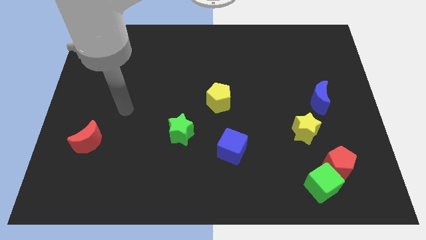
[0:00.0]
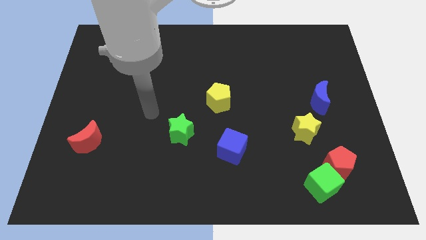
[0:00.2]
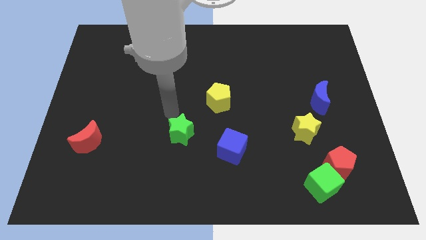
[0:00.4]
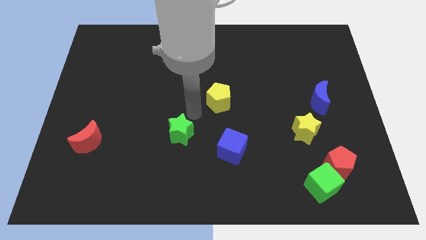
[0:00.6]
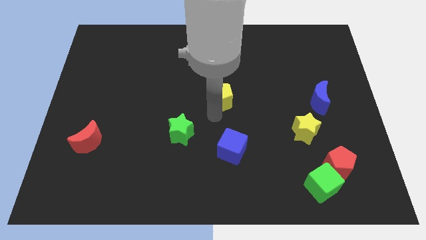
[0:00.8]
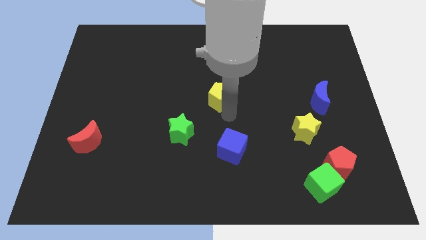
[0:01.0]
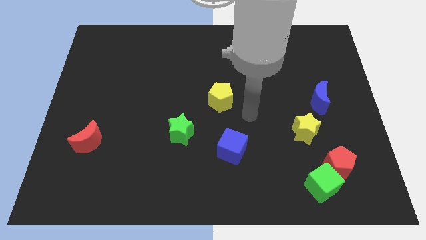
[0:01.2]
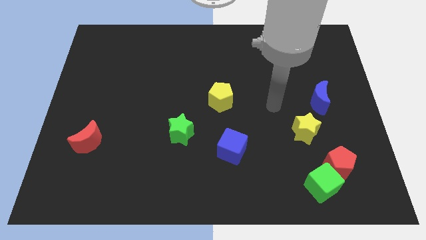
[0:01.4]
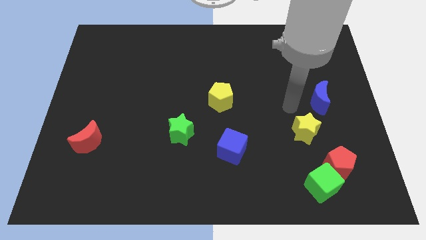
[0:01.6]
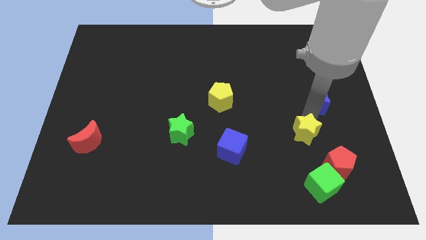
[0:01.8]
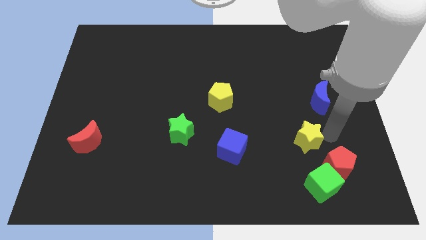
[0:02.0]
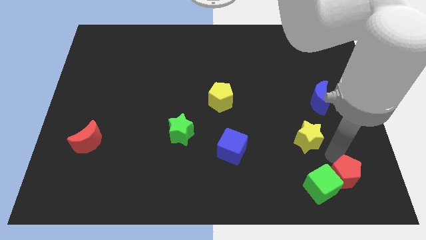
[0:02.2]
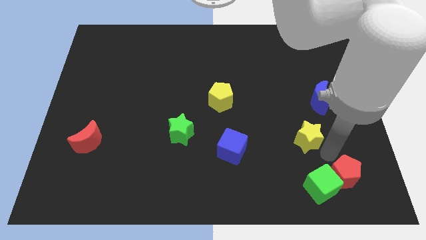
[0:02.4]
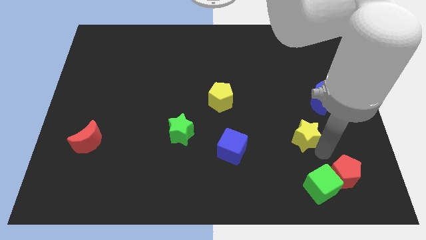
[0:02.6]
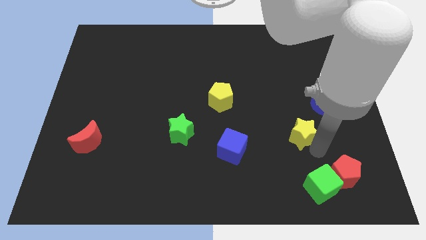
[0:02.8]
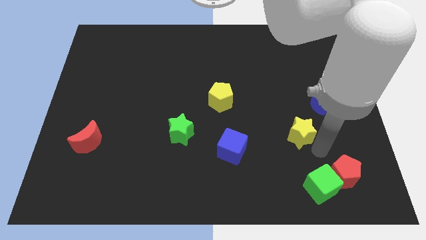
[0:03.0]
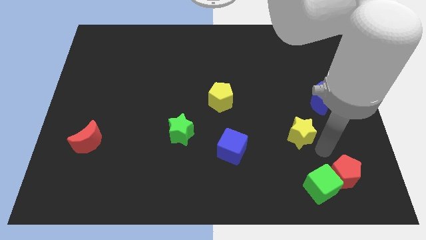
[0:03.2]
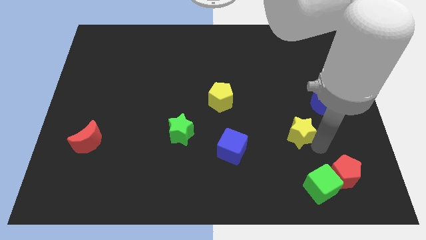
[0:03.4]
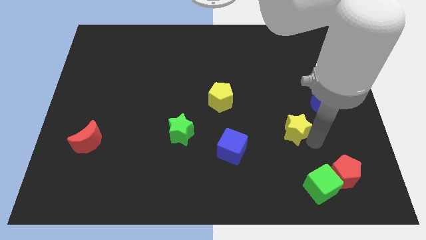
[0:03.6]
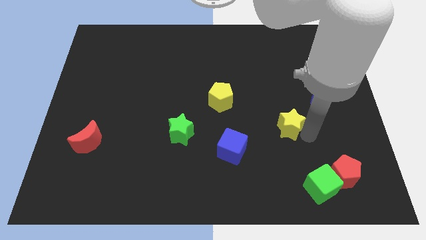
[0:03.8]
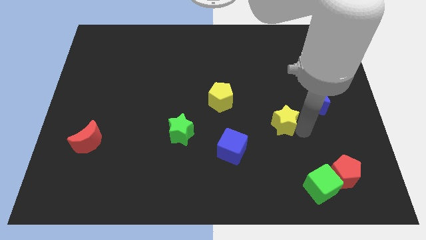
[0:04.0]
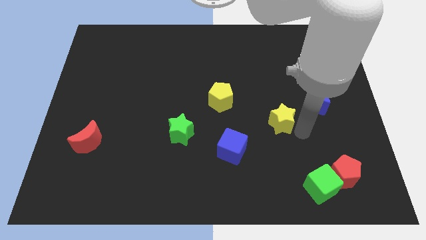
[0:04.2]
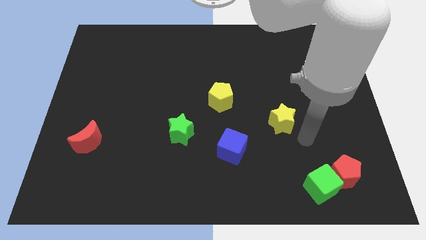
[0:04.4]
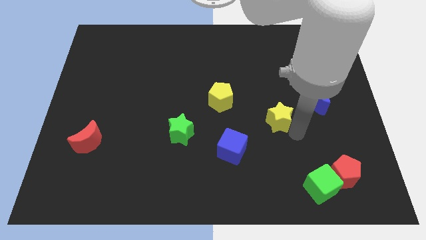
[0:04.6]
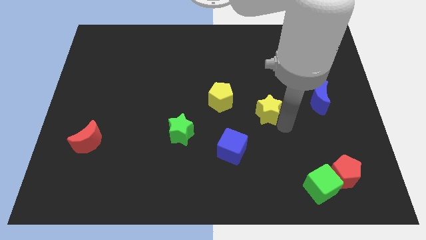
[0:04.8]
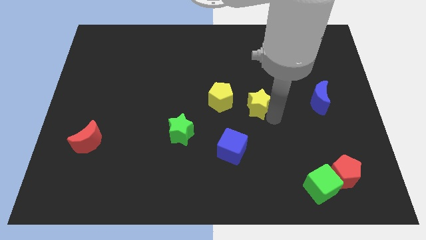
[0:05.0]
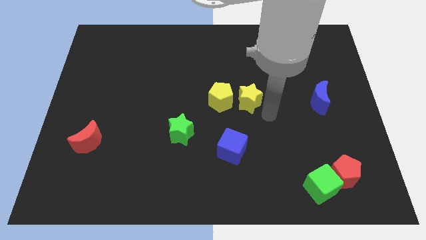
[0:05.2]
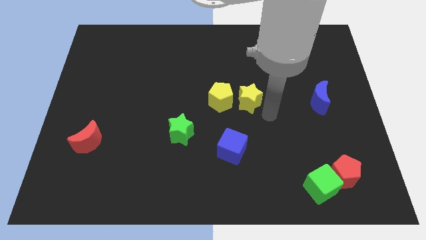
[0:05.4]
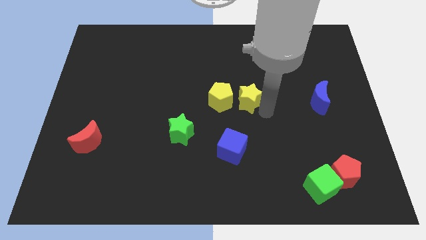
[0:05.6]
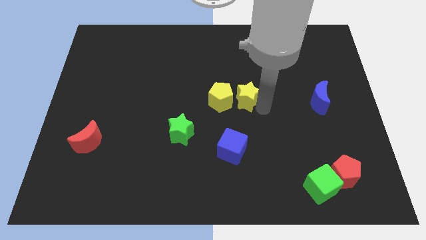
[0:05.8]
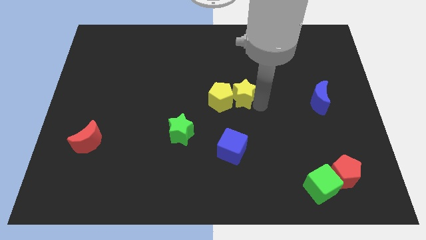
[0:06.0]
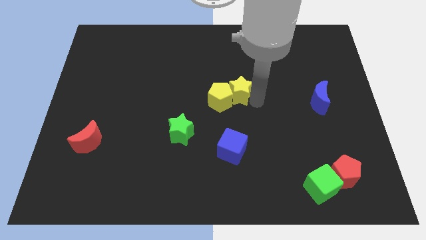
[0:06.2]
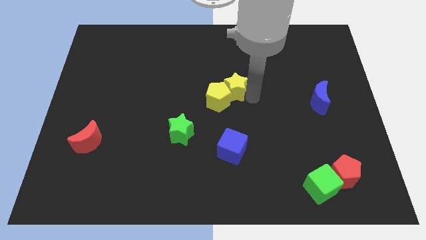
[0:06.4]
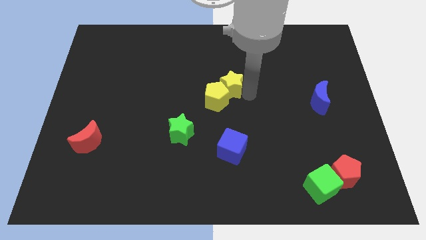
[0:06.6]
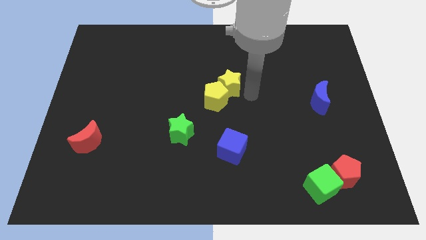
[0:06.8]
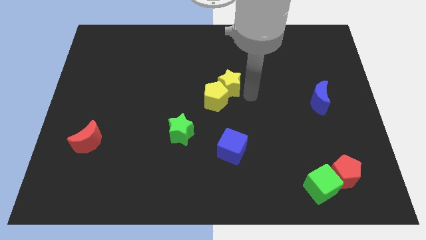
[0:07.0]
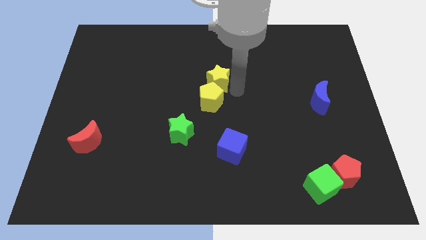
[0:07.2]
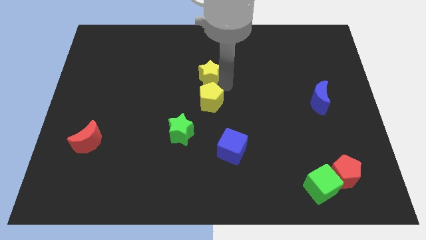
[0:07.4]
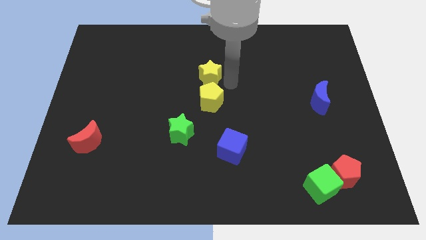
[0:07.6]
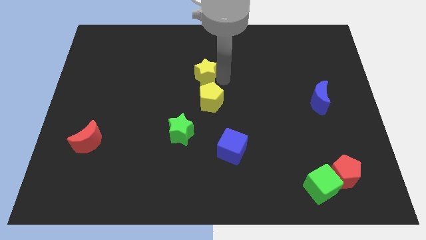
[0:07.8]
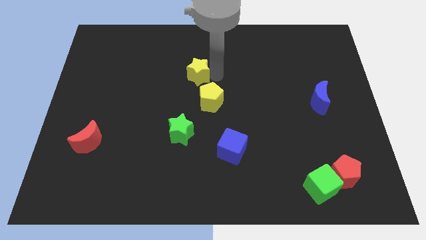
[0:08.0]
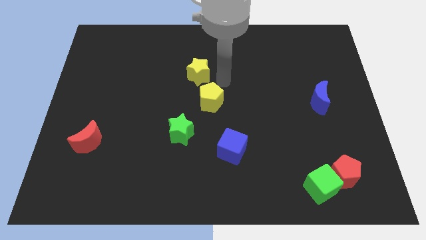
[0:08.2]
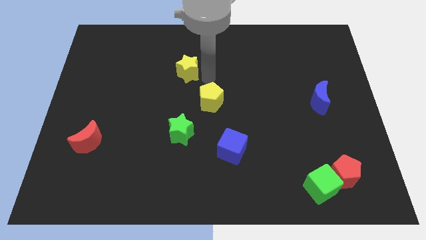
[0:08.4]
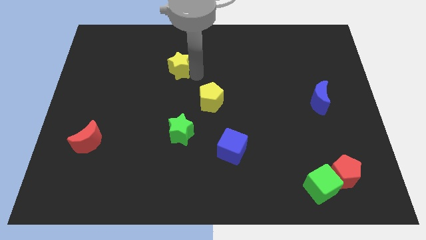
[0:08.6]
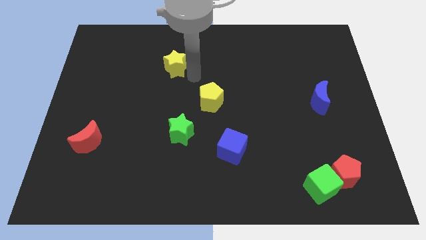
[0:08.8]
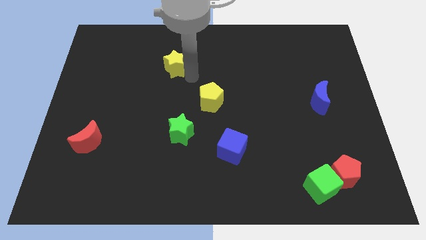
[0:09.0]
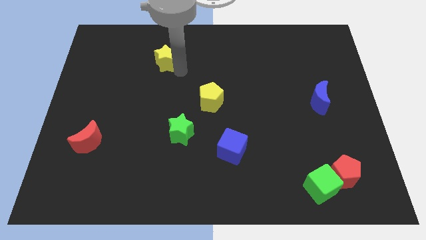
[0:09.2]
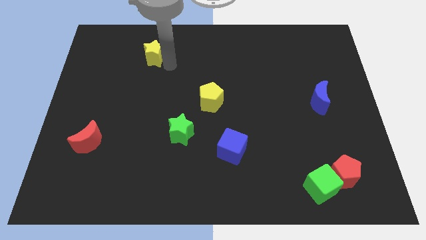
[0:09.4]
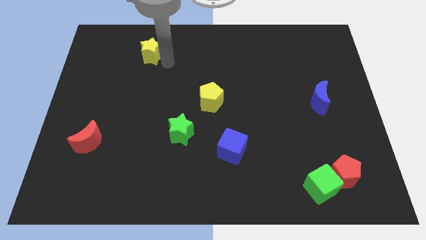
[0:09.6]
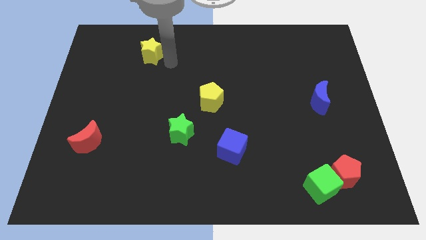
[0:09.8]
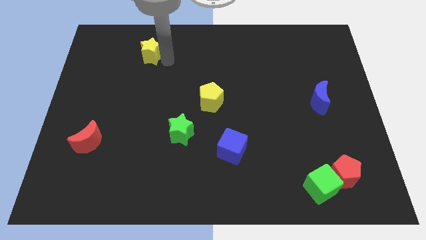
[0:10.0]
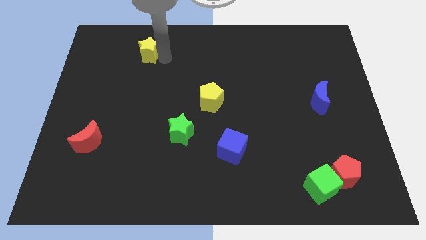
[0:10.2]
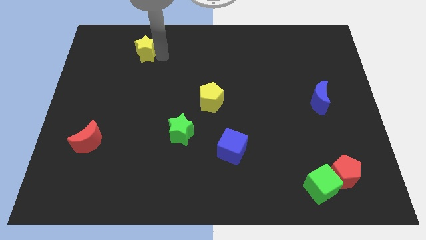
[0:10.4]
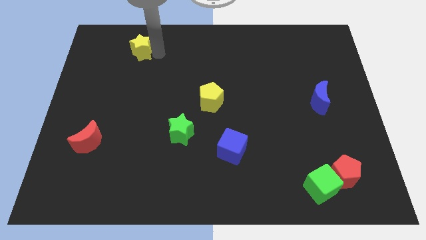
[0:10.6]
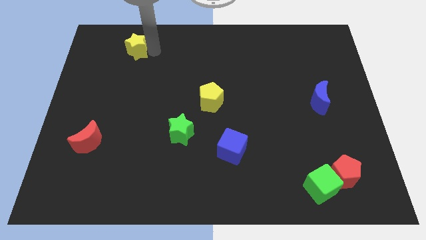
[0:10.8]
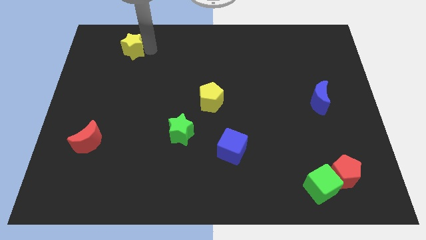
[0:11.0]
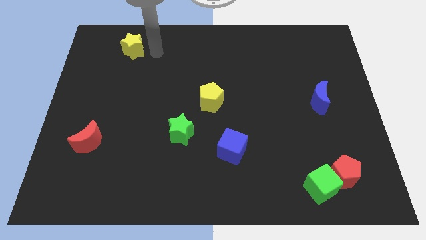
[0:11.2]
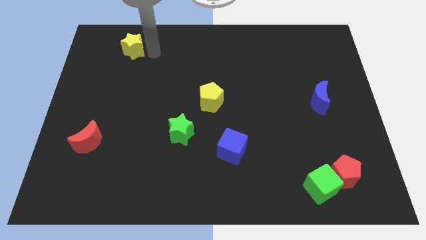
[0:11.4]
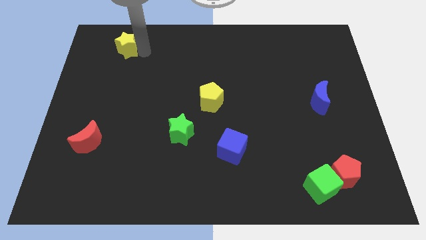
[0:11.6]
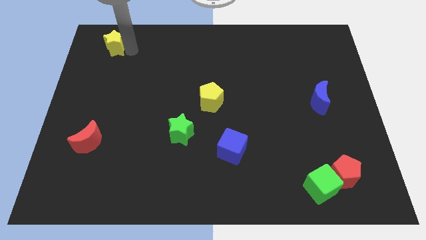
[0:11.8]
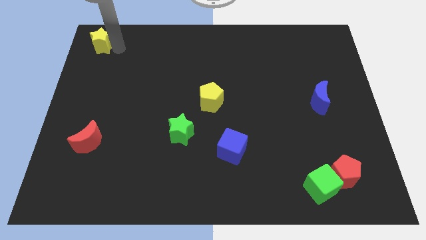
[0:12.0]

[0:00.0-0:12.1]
push the yellow star to the top left
